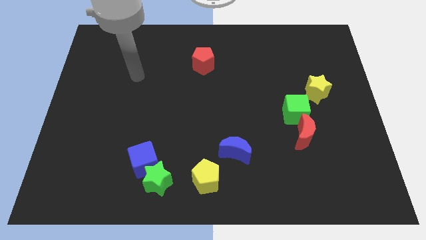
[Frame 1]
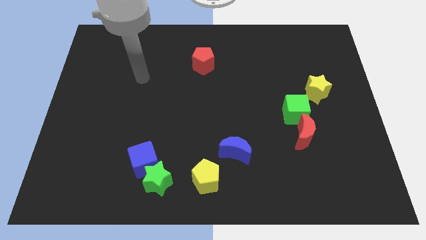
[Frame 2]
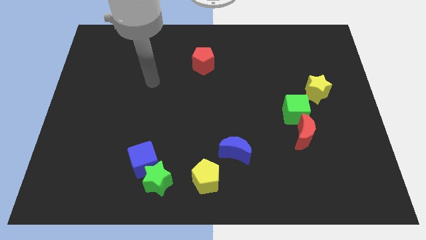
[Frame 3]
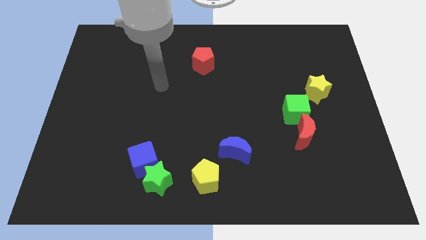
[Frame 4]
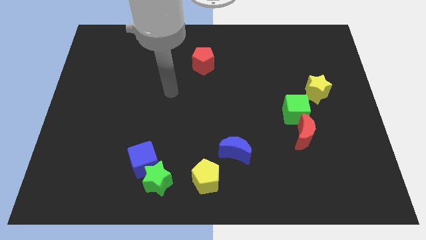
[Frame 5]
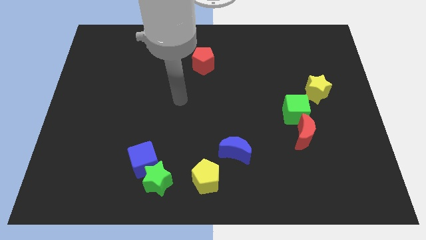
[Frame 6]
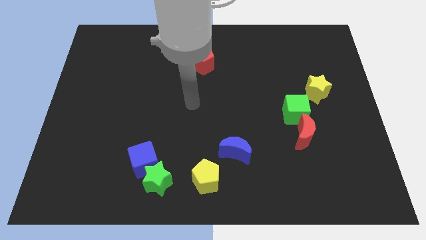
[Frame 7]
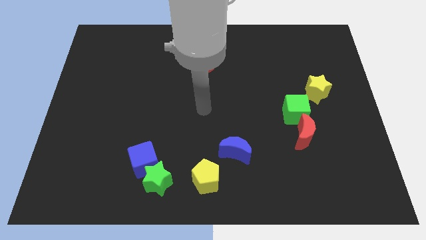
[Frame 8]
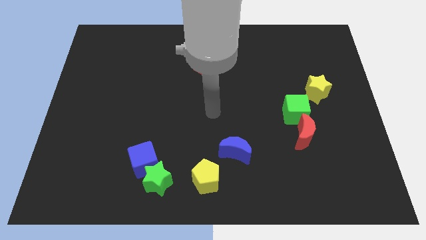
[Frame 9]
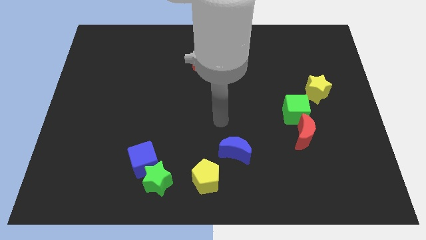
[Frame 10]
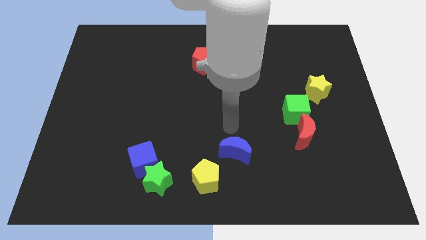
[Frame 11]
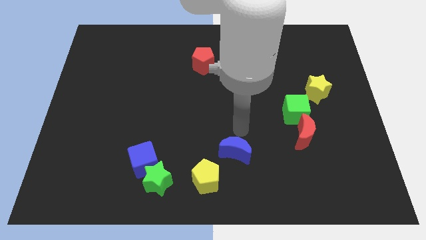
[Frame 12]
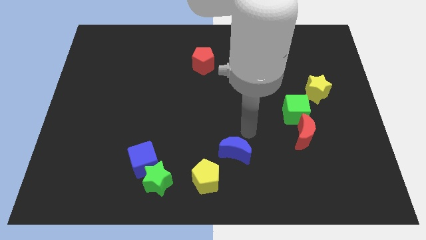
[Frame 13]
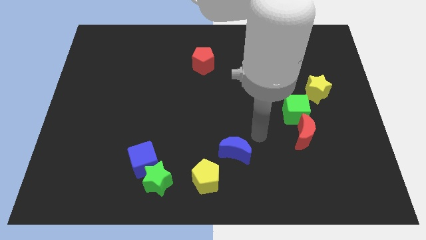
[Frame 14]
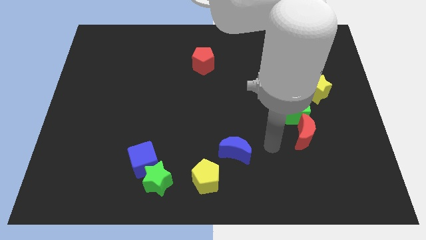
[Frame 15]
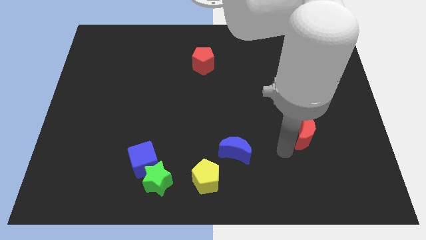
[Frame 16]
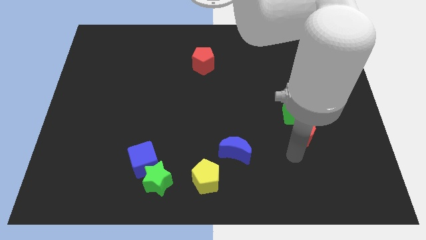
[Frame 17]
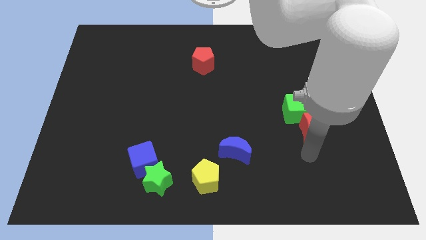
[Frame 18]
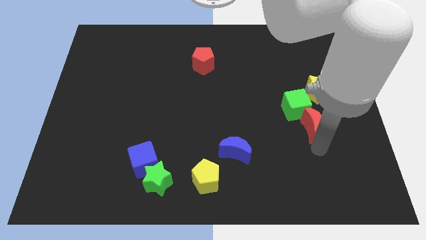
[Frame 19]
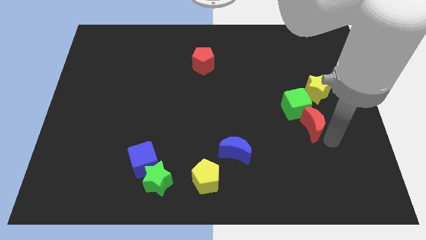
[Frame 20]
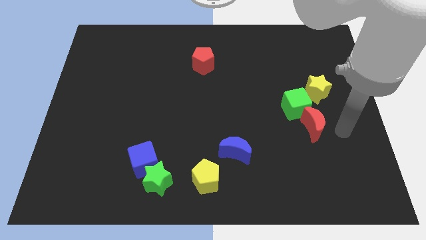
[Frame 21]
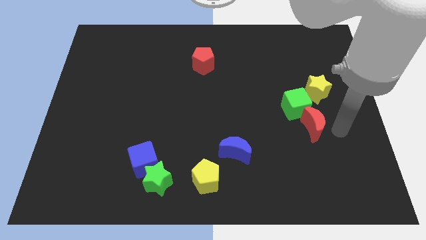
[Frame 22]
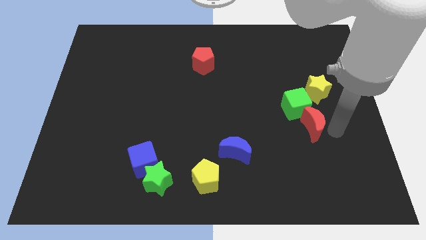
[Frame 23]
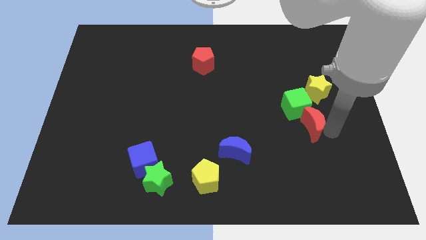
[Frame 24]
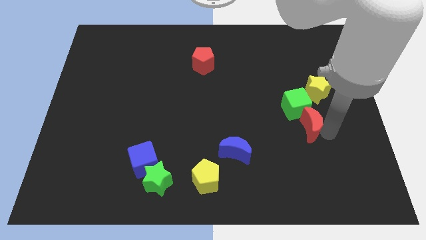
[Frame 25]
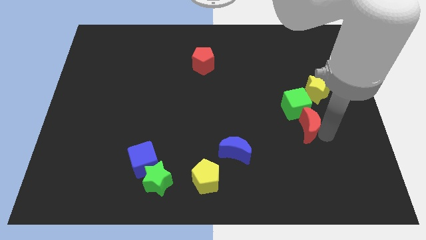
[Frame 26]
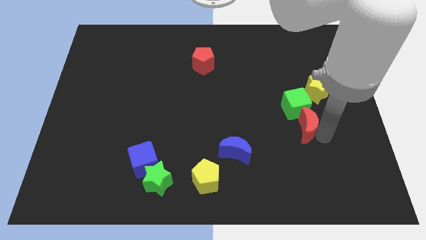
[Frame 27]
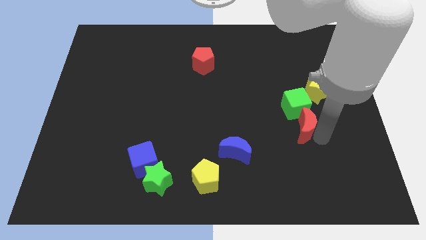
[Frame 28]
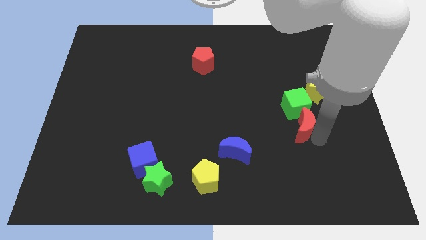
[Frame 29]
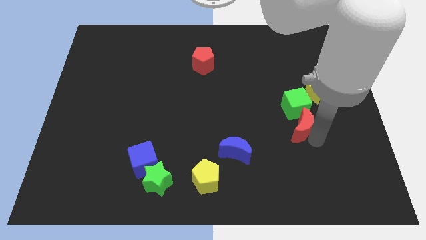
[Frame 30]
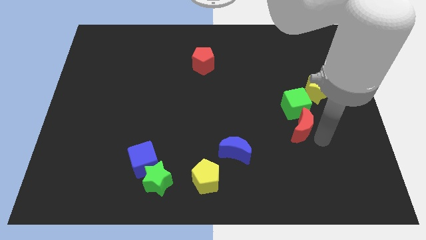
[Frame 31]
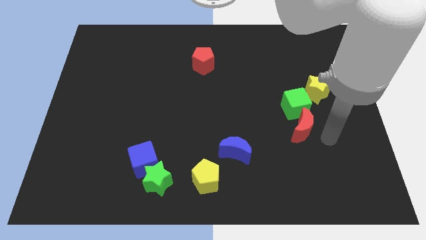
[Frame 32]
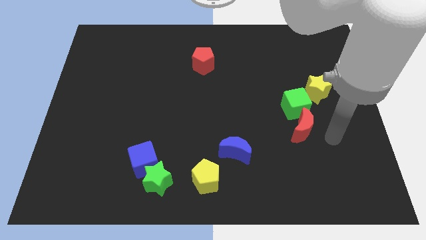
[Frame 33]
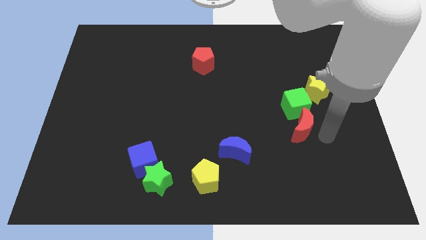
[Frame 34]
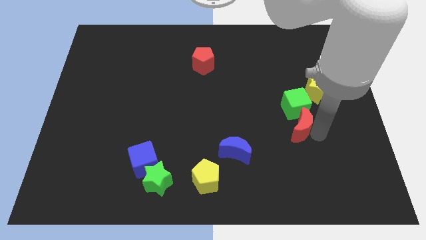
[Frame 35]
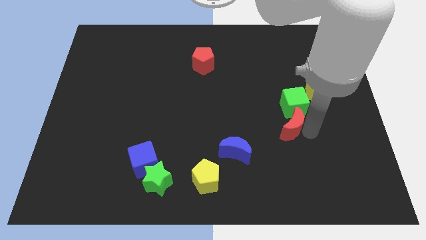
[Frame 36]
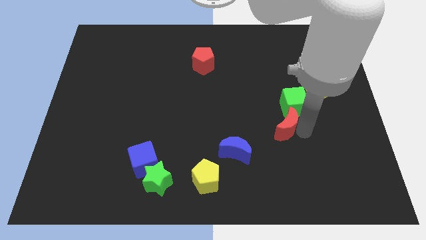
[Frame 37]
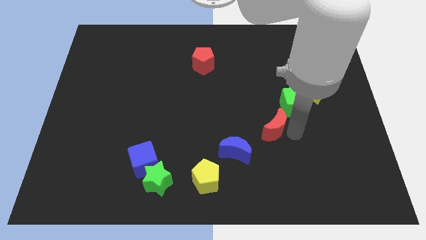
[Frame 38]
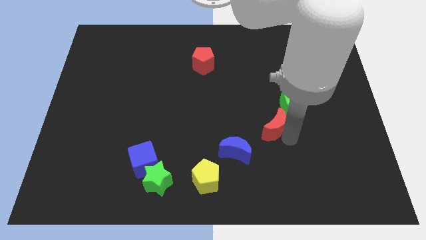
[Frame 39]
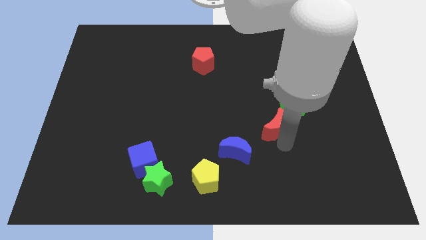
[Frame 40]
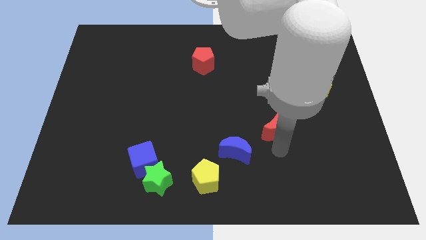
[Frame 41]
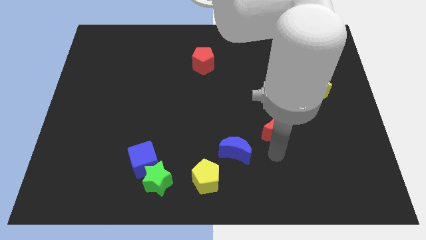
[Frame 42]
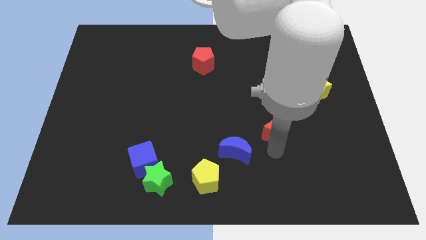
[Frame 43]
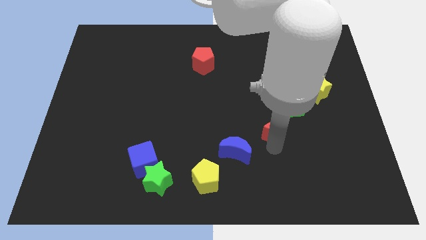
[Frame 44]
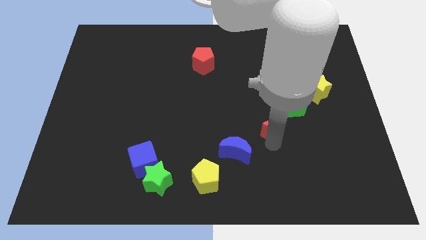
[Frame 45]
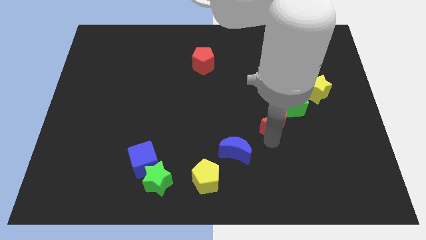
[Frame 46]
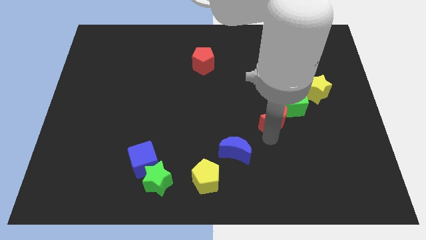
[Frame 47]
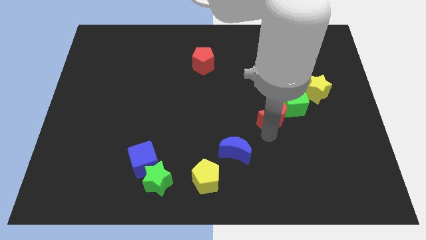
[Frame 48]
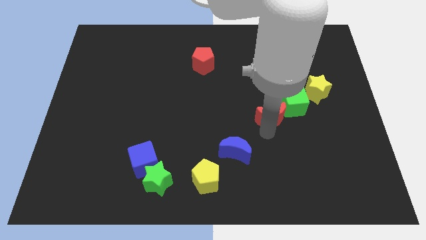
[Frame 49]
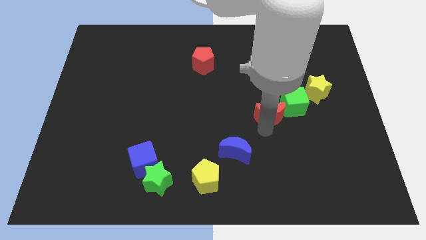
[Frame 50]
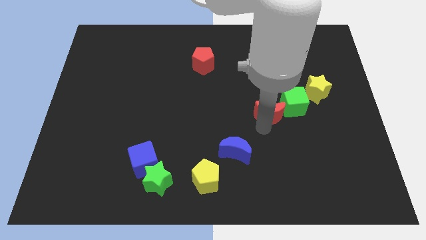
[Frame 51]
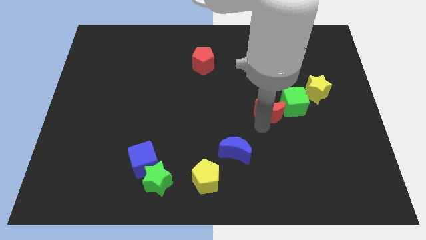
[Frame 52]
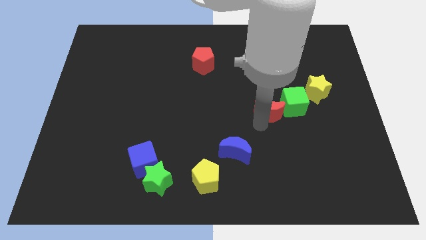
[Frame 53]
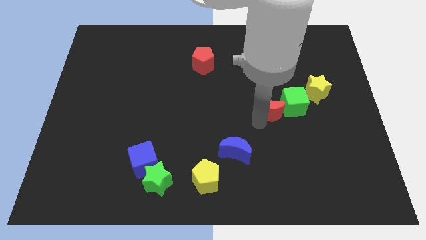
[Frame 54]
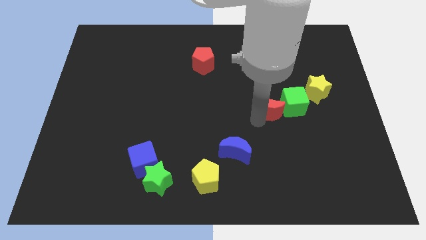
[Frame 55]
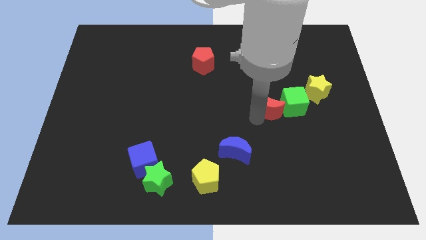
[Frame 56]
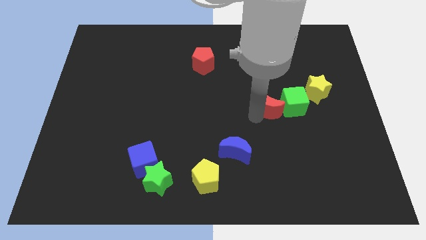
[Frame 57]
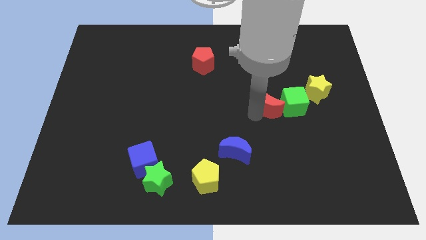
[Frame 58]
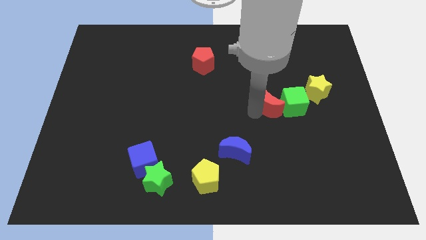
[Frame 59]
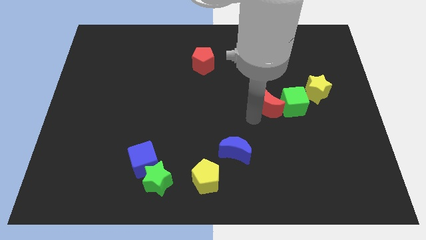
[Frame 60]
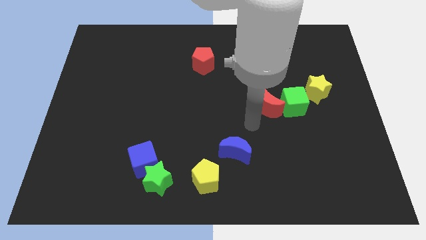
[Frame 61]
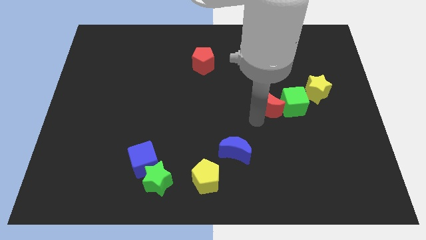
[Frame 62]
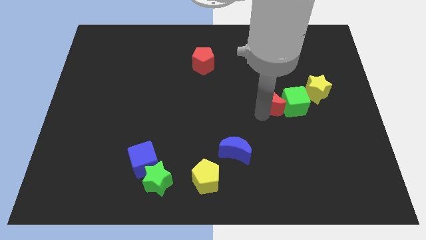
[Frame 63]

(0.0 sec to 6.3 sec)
push the red moon a bit up

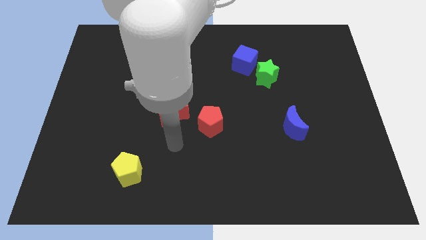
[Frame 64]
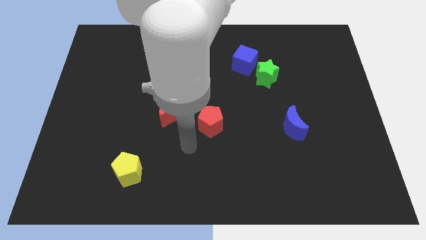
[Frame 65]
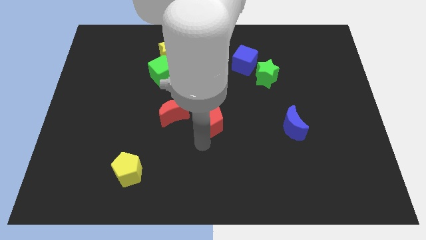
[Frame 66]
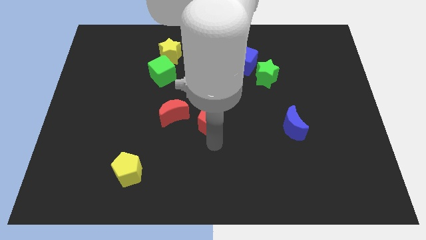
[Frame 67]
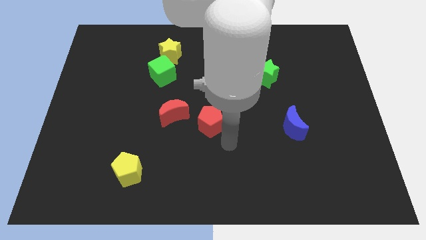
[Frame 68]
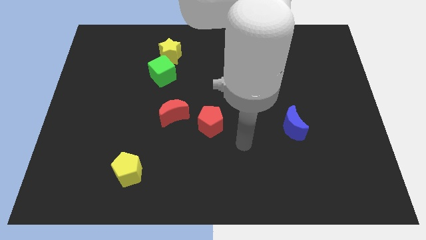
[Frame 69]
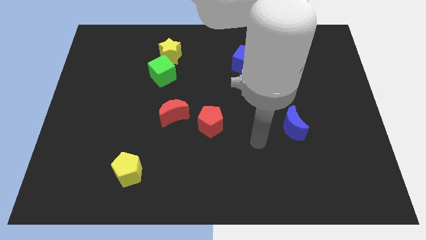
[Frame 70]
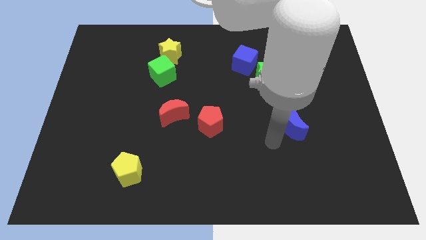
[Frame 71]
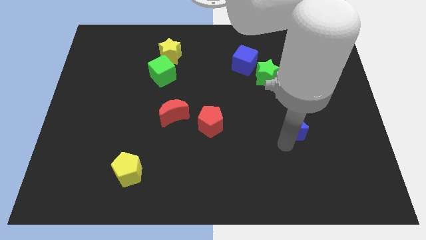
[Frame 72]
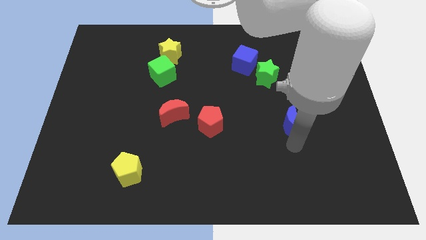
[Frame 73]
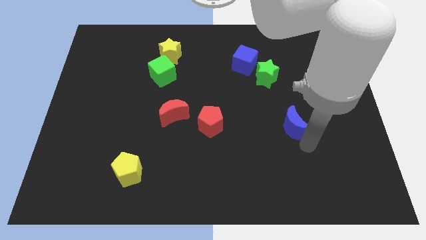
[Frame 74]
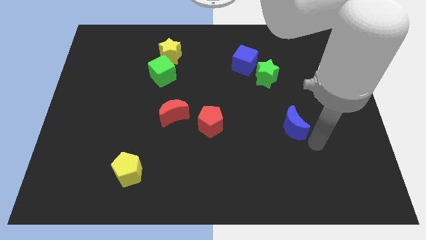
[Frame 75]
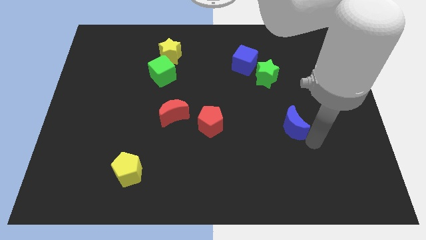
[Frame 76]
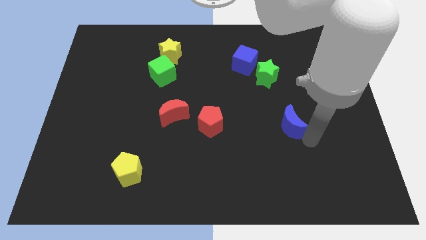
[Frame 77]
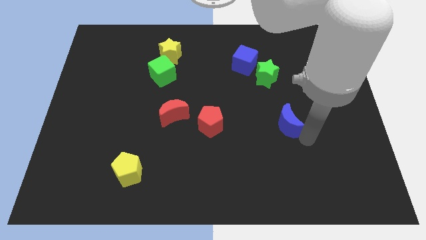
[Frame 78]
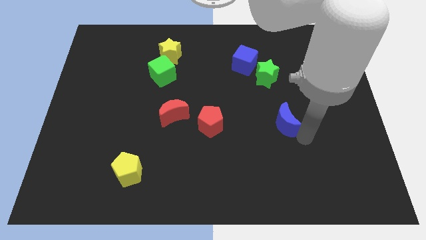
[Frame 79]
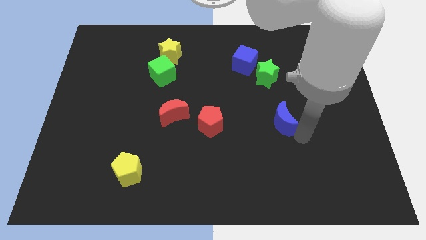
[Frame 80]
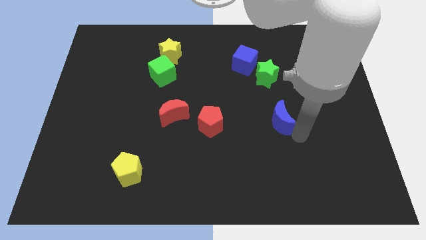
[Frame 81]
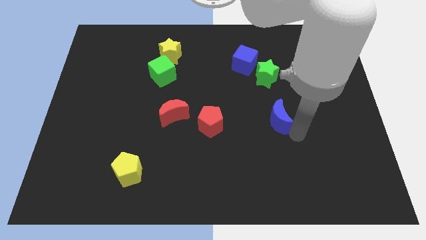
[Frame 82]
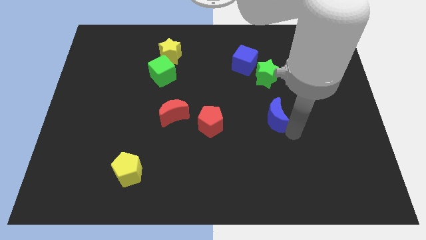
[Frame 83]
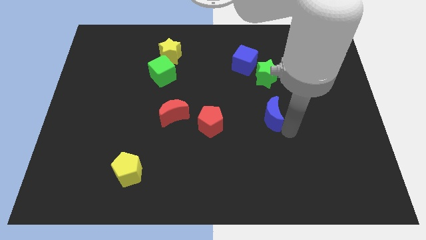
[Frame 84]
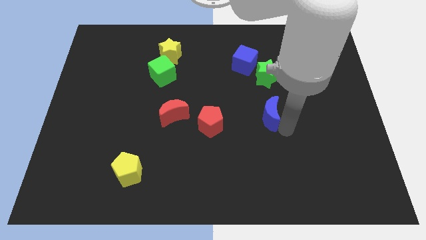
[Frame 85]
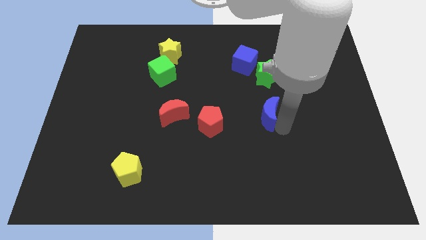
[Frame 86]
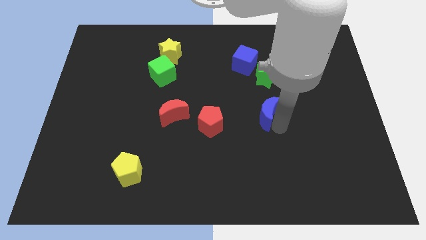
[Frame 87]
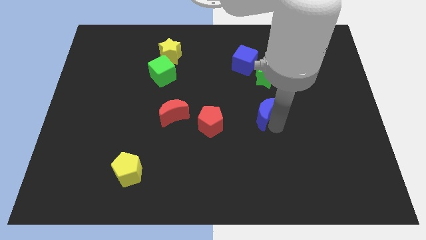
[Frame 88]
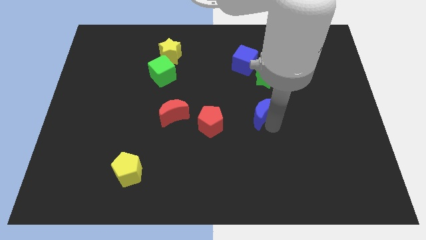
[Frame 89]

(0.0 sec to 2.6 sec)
slide the blue moon up and then to the left a little bit
